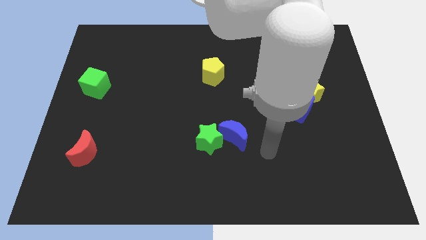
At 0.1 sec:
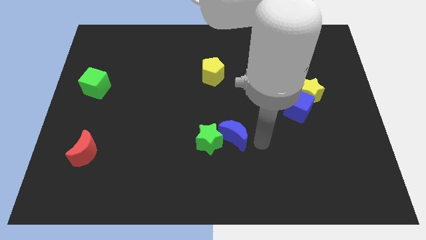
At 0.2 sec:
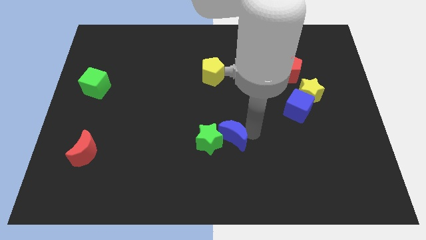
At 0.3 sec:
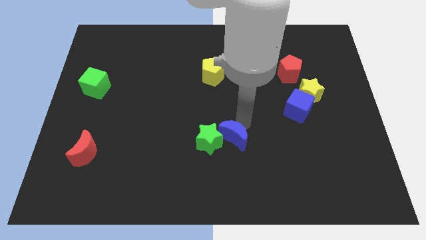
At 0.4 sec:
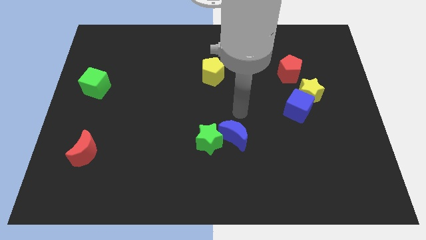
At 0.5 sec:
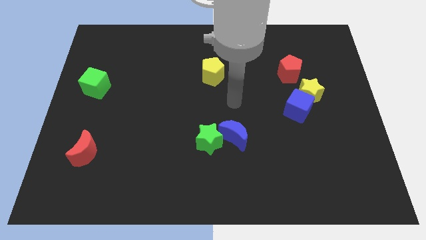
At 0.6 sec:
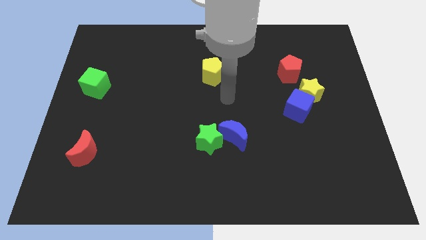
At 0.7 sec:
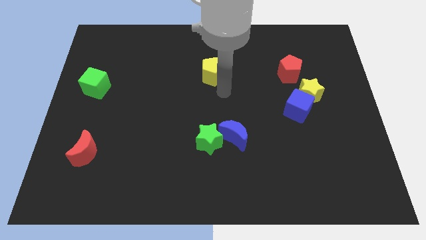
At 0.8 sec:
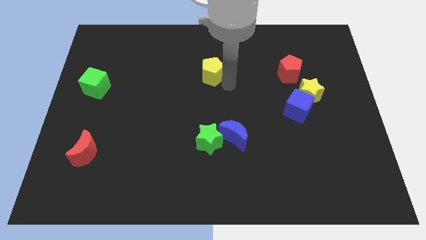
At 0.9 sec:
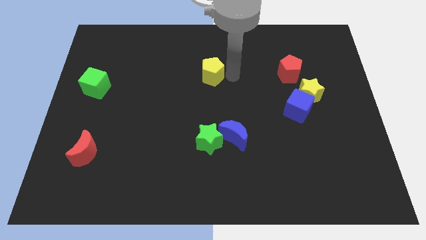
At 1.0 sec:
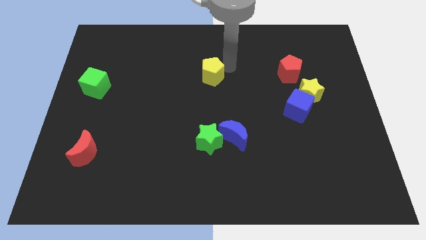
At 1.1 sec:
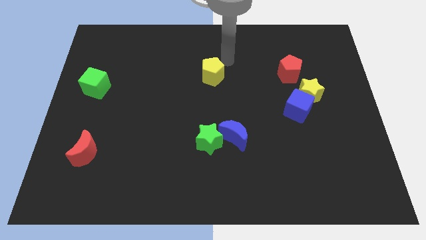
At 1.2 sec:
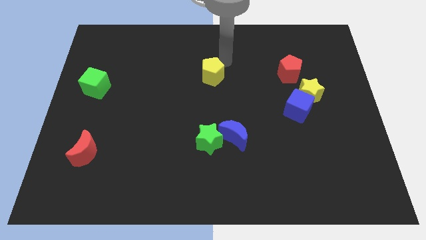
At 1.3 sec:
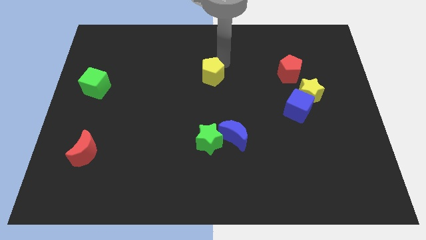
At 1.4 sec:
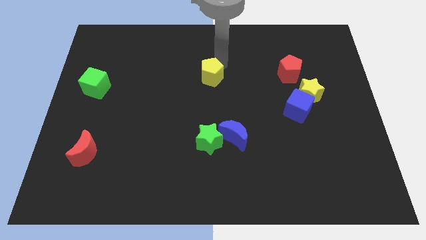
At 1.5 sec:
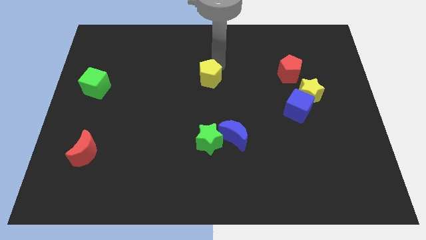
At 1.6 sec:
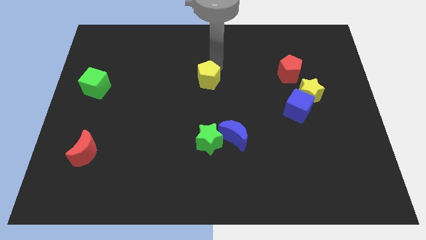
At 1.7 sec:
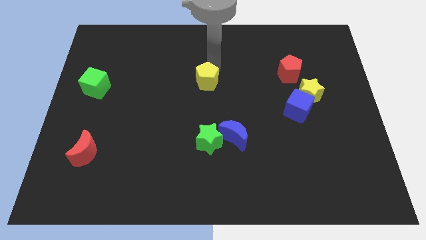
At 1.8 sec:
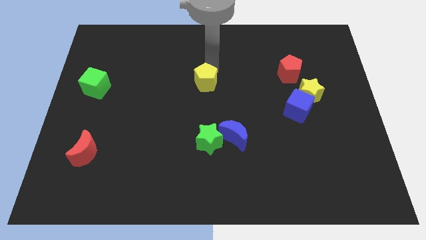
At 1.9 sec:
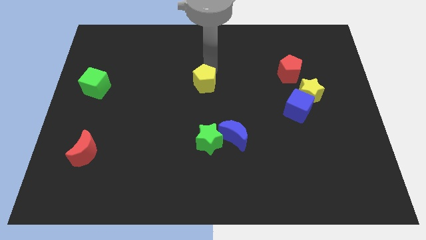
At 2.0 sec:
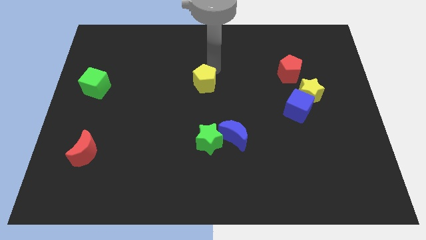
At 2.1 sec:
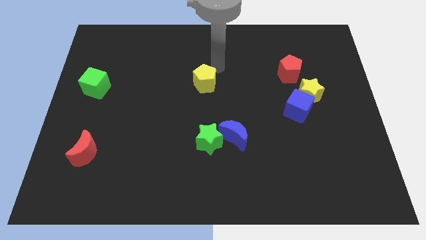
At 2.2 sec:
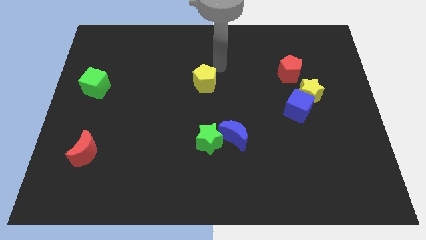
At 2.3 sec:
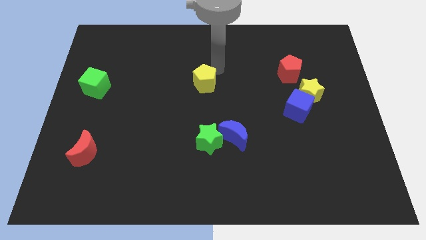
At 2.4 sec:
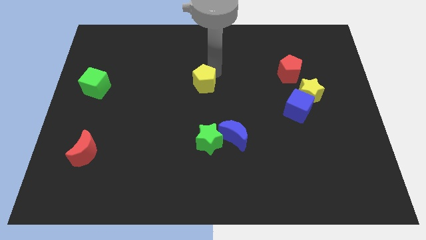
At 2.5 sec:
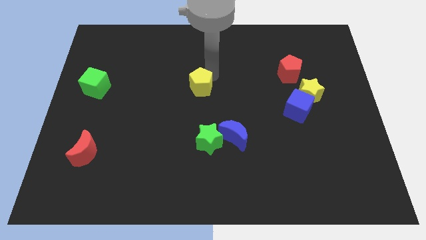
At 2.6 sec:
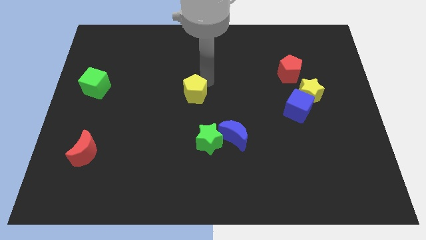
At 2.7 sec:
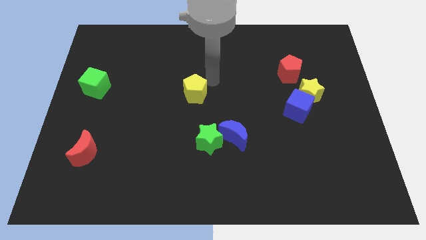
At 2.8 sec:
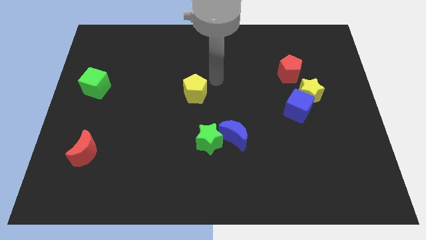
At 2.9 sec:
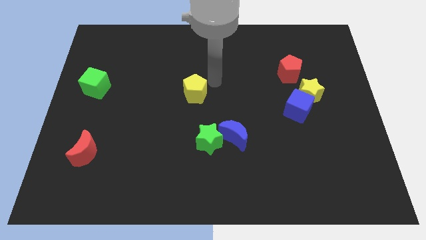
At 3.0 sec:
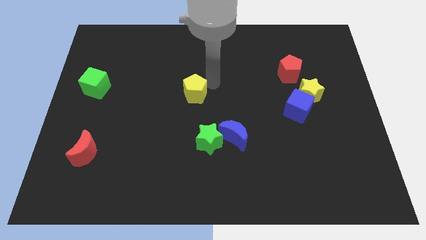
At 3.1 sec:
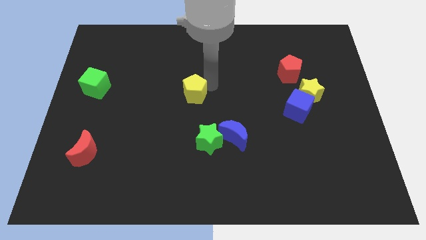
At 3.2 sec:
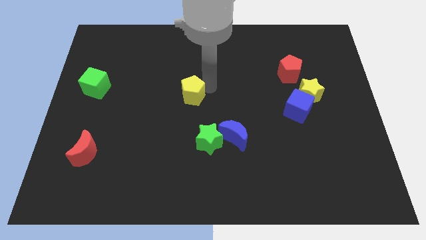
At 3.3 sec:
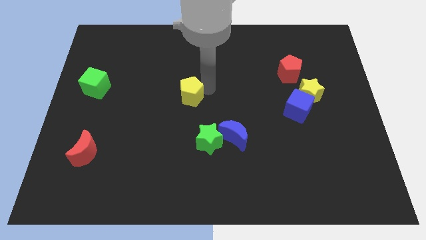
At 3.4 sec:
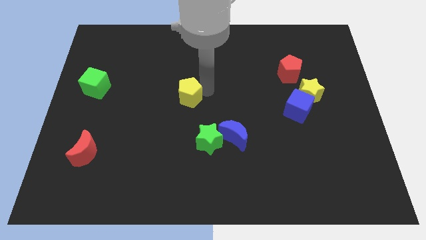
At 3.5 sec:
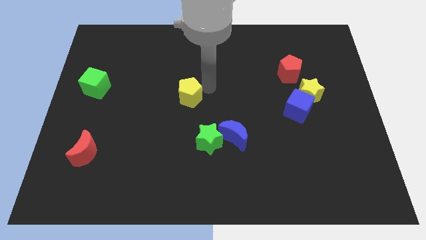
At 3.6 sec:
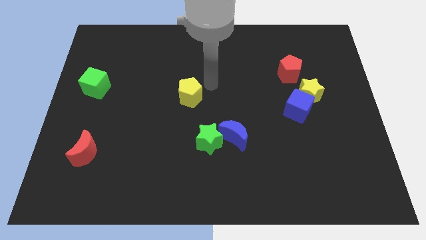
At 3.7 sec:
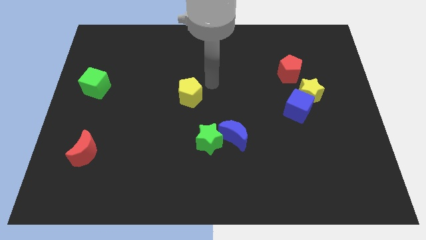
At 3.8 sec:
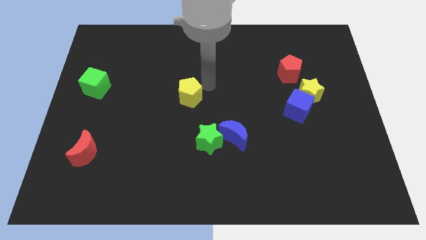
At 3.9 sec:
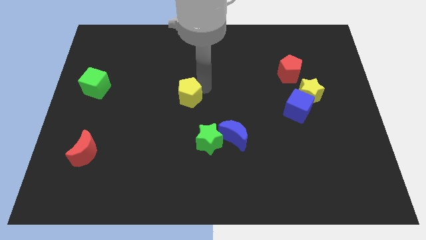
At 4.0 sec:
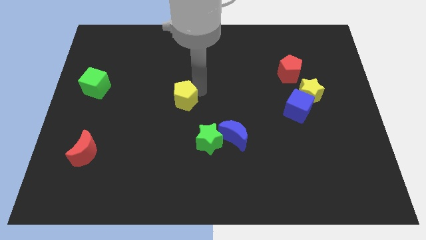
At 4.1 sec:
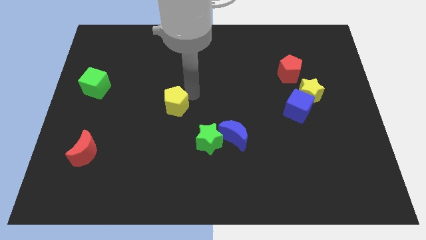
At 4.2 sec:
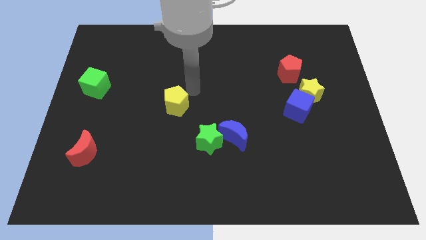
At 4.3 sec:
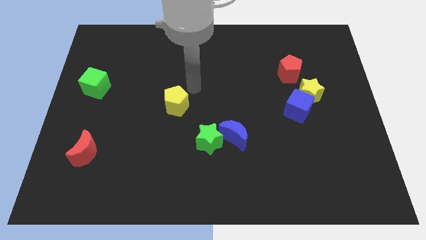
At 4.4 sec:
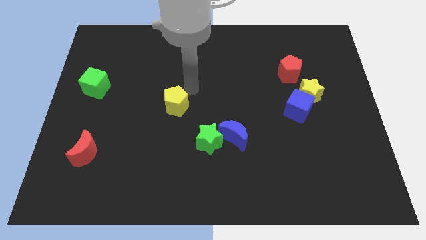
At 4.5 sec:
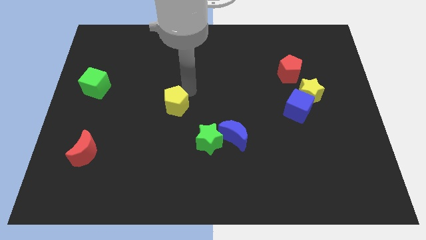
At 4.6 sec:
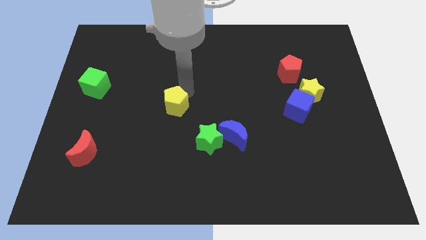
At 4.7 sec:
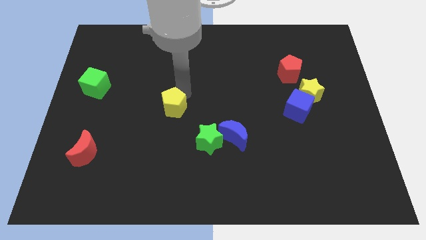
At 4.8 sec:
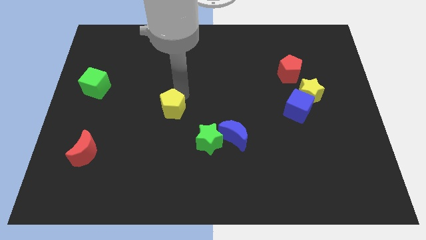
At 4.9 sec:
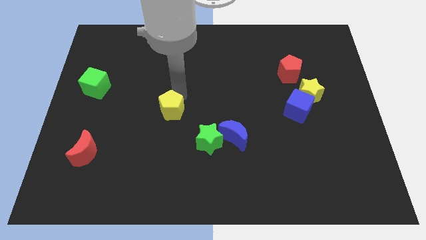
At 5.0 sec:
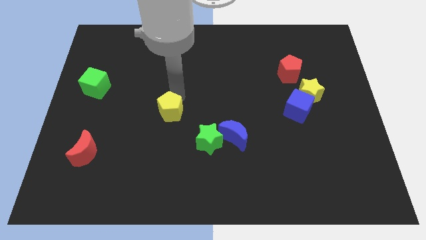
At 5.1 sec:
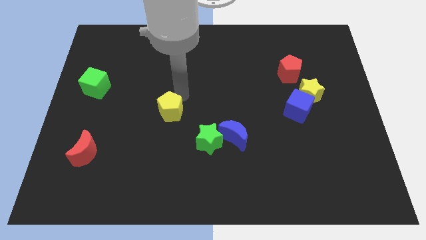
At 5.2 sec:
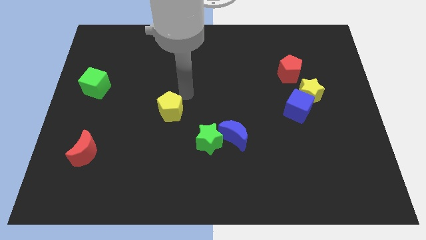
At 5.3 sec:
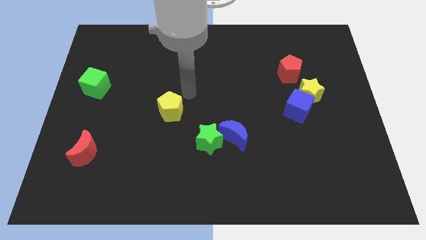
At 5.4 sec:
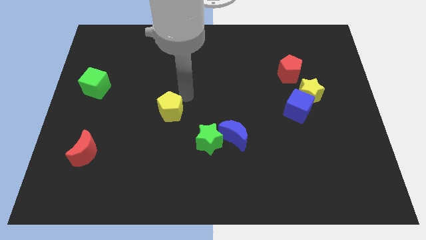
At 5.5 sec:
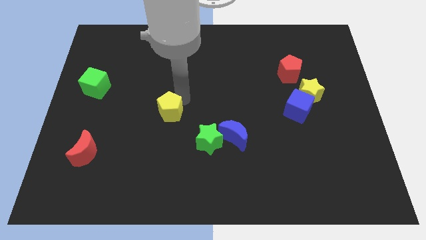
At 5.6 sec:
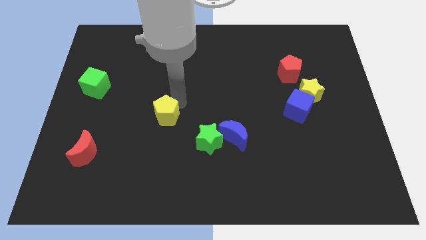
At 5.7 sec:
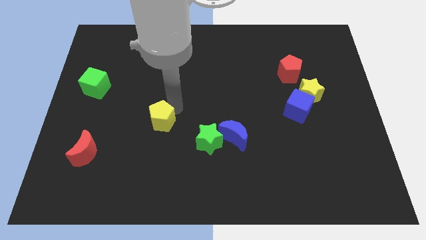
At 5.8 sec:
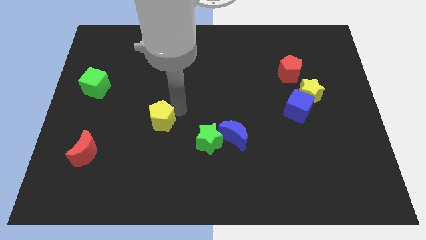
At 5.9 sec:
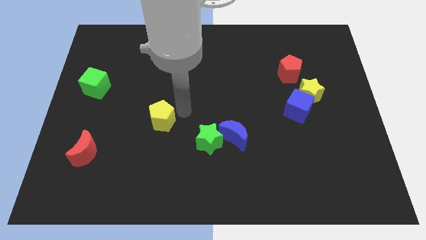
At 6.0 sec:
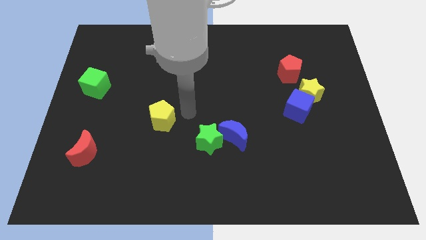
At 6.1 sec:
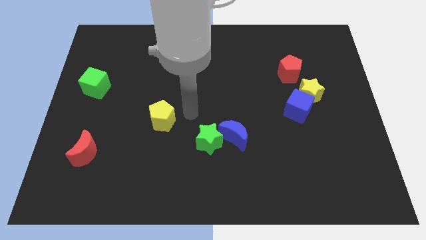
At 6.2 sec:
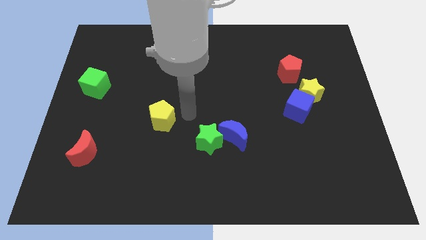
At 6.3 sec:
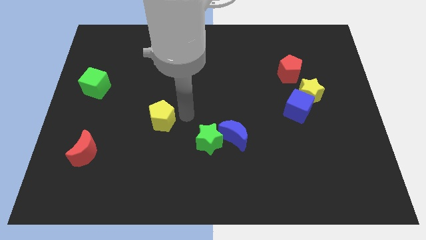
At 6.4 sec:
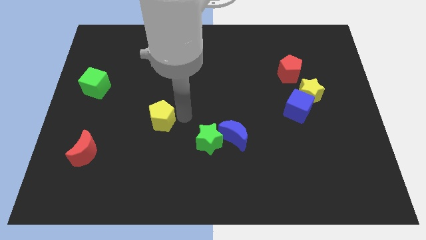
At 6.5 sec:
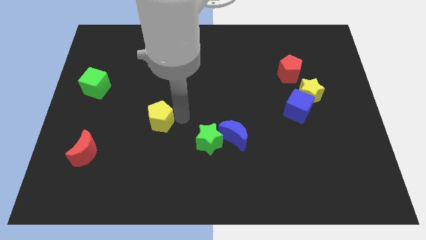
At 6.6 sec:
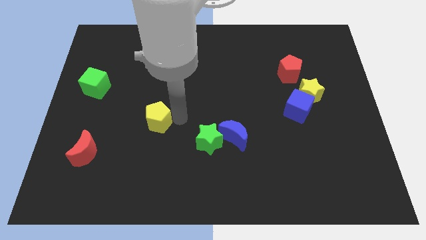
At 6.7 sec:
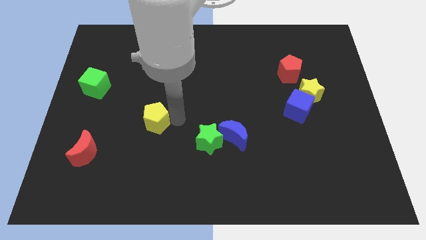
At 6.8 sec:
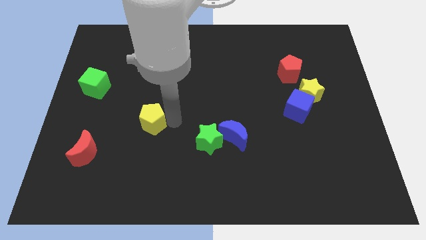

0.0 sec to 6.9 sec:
move the yellow pentagon down and then to the left

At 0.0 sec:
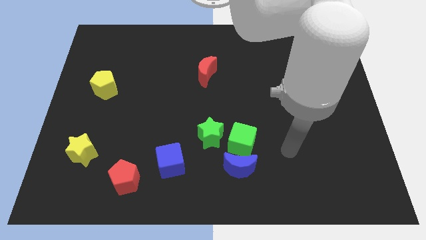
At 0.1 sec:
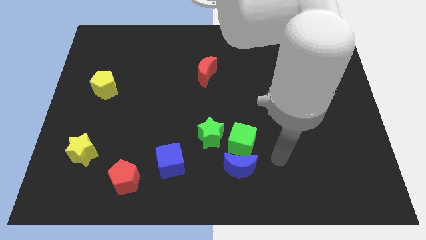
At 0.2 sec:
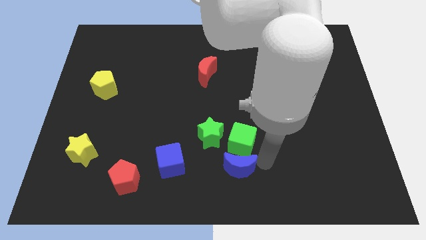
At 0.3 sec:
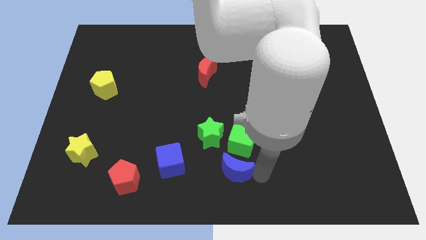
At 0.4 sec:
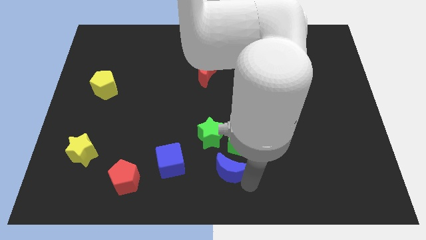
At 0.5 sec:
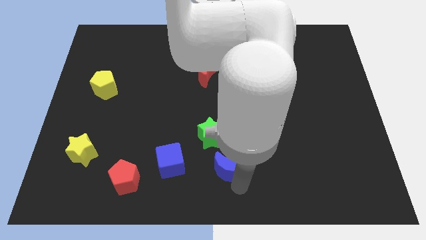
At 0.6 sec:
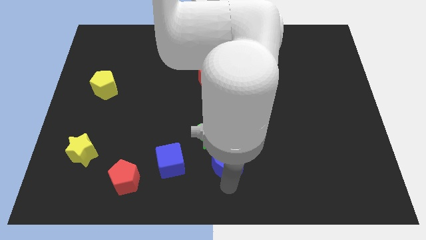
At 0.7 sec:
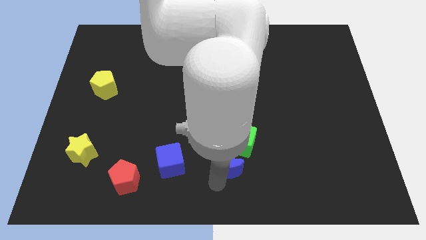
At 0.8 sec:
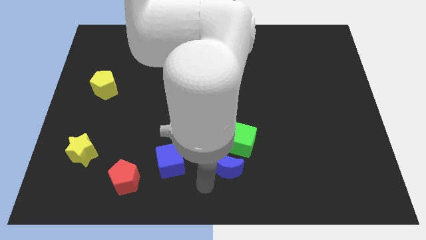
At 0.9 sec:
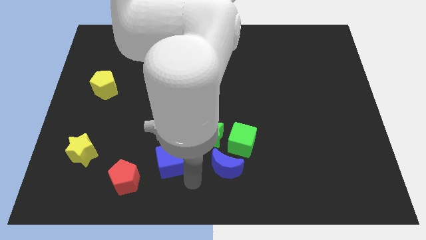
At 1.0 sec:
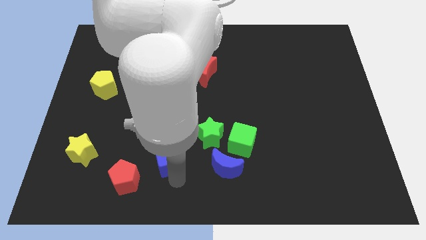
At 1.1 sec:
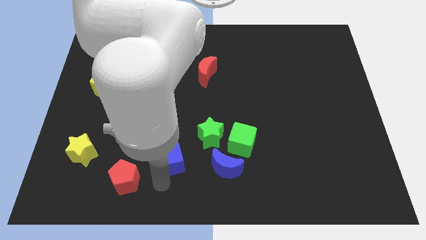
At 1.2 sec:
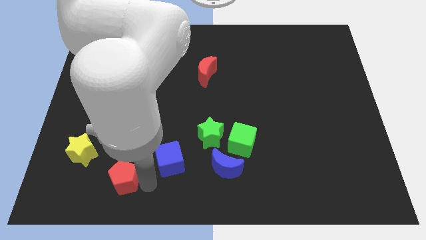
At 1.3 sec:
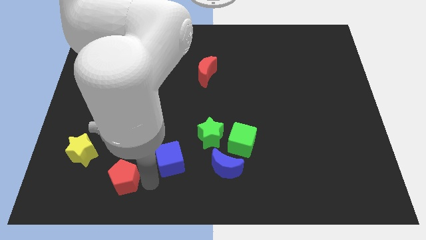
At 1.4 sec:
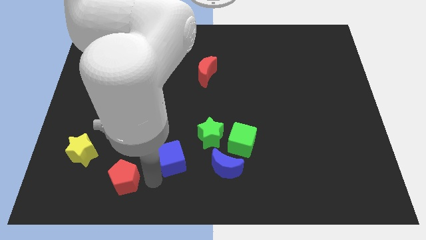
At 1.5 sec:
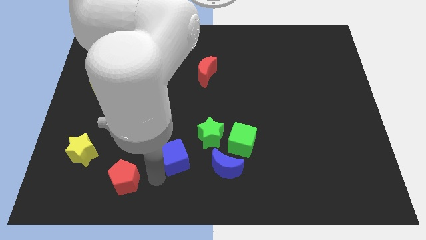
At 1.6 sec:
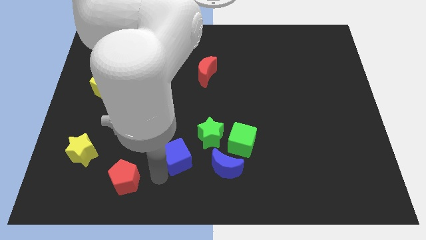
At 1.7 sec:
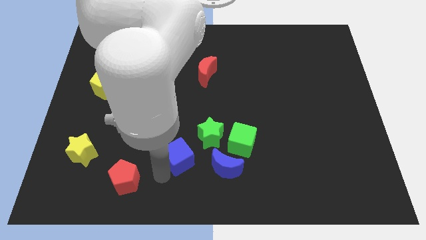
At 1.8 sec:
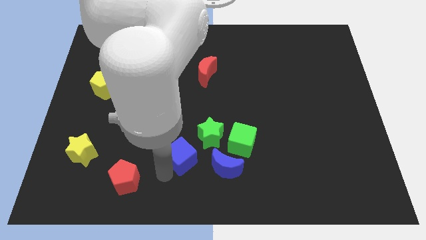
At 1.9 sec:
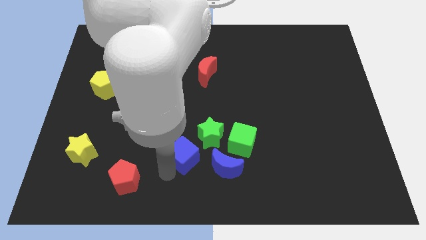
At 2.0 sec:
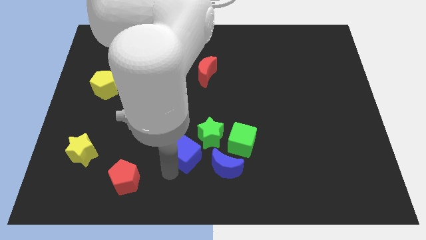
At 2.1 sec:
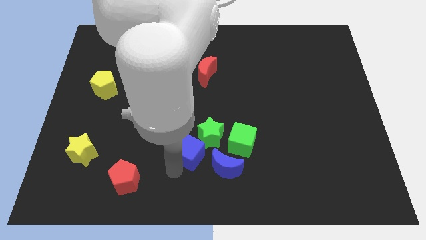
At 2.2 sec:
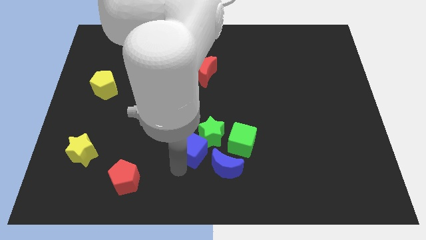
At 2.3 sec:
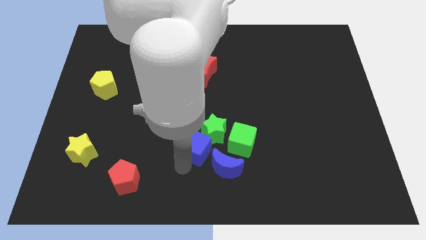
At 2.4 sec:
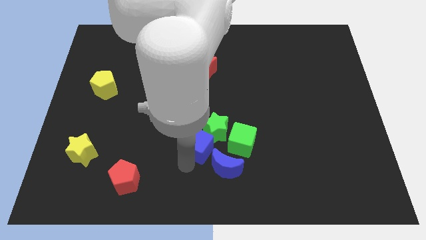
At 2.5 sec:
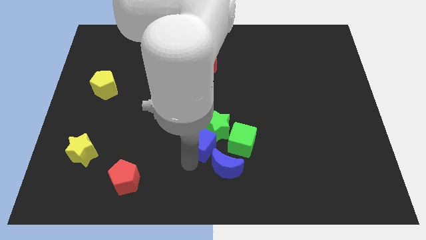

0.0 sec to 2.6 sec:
slide the blue cube up and right diagonally a little
